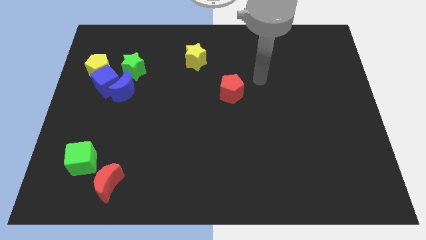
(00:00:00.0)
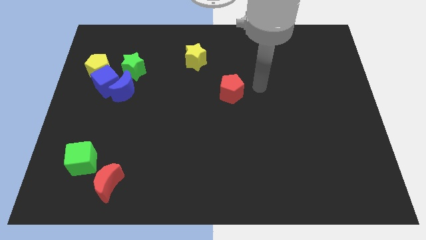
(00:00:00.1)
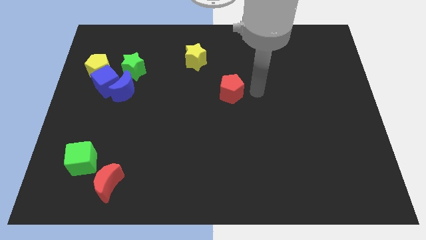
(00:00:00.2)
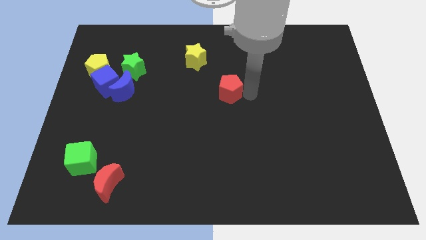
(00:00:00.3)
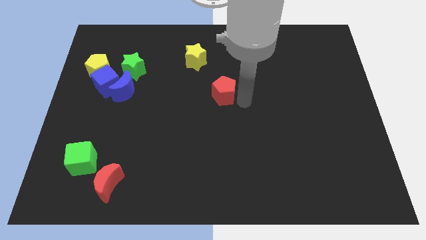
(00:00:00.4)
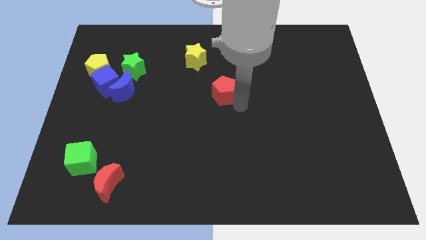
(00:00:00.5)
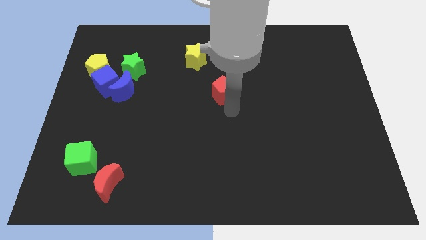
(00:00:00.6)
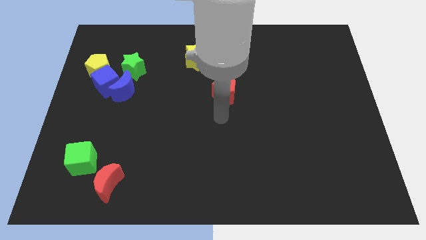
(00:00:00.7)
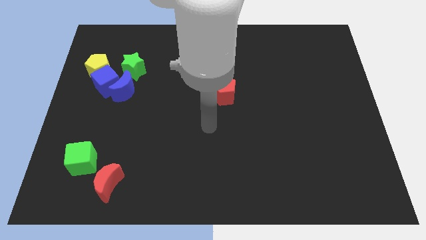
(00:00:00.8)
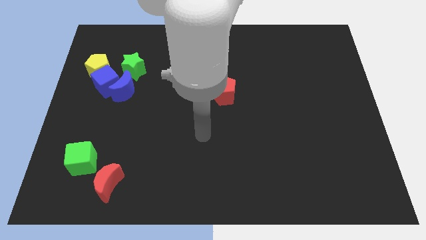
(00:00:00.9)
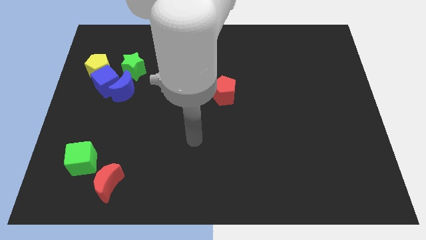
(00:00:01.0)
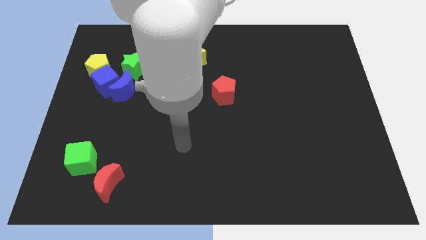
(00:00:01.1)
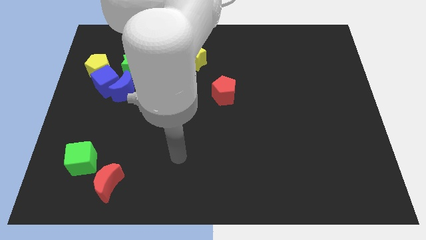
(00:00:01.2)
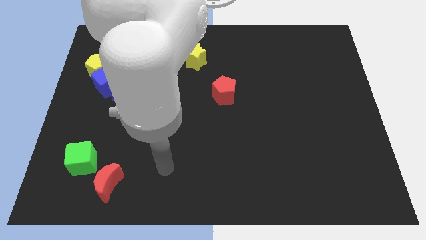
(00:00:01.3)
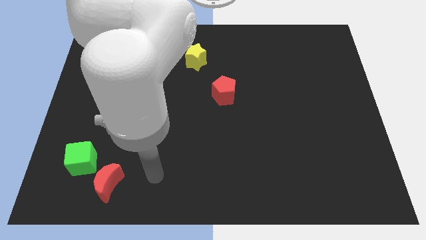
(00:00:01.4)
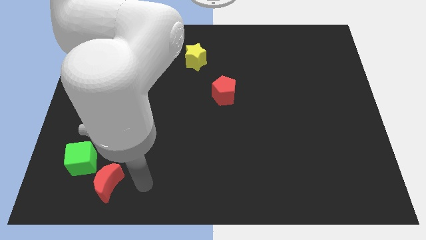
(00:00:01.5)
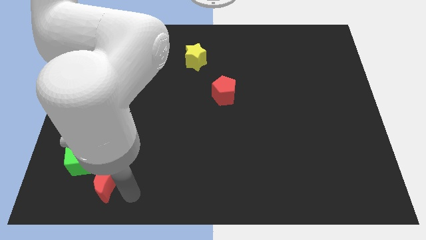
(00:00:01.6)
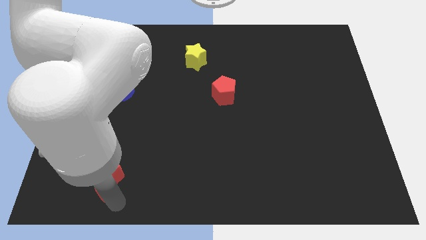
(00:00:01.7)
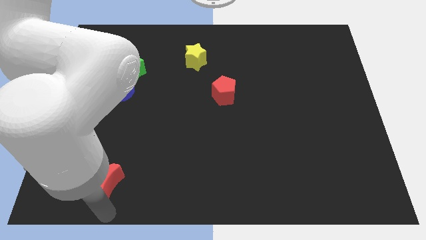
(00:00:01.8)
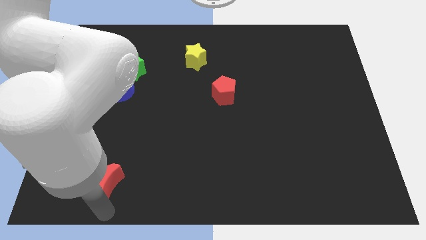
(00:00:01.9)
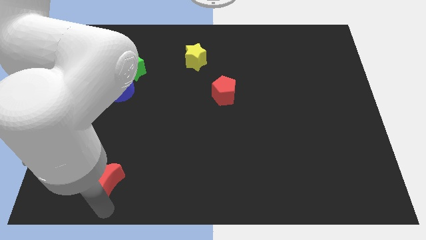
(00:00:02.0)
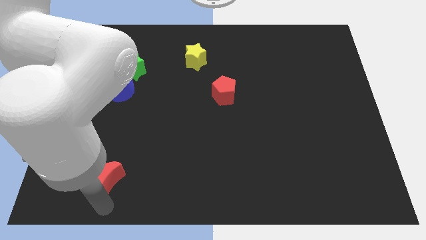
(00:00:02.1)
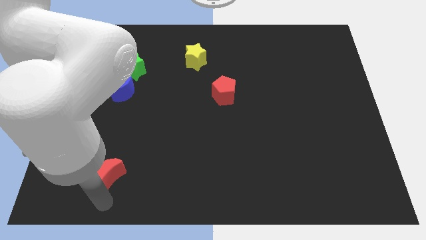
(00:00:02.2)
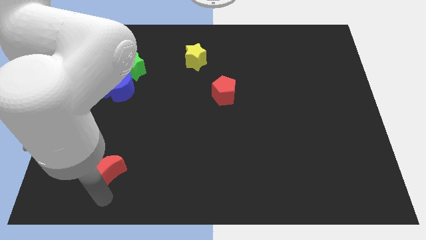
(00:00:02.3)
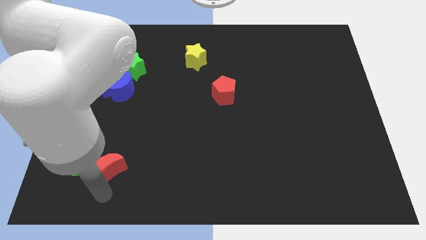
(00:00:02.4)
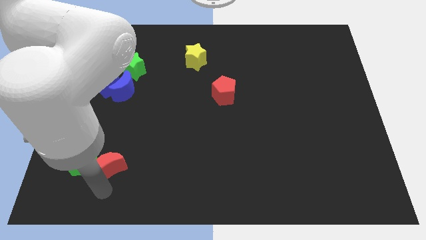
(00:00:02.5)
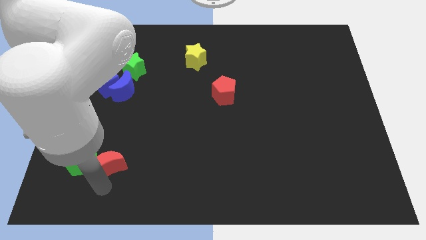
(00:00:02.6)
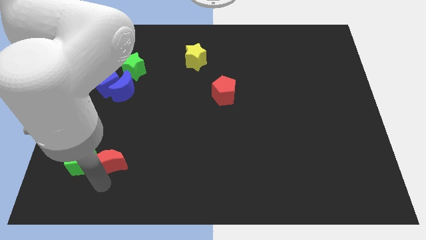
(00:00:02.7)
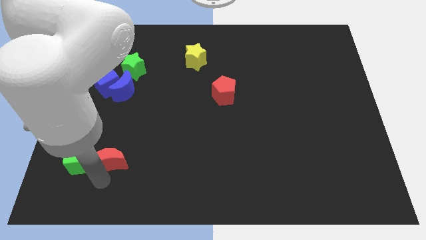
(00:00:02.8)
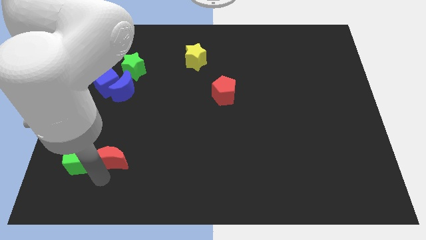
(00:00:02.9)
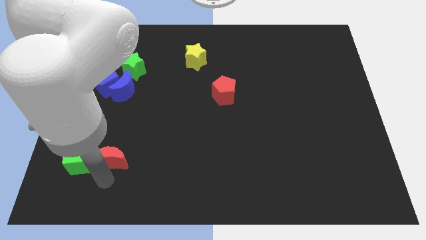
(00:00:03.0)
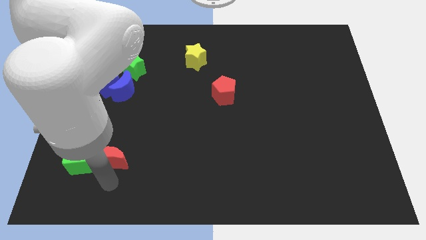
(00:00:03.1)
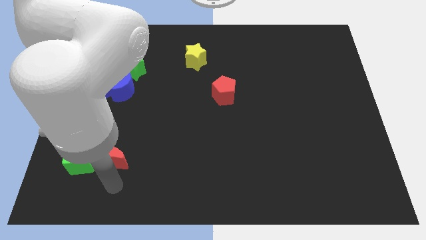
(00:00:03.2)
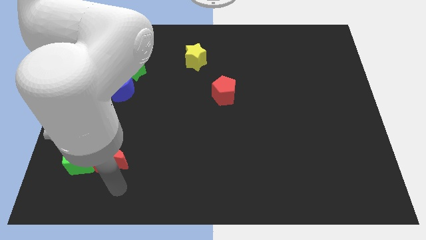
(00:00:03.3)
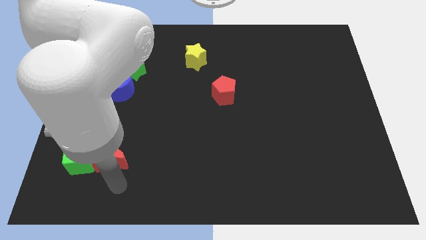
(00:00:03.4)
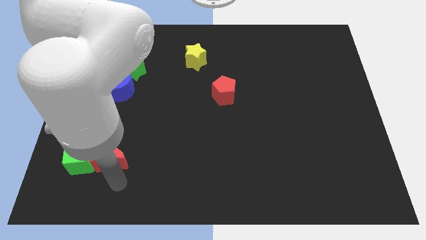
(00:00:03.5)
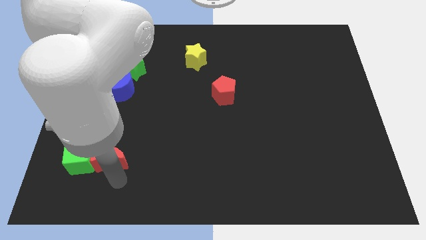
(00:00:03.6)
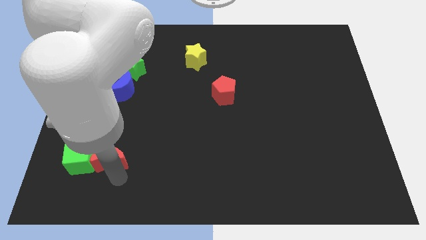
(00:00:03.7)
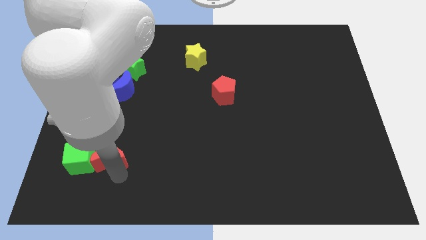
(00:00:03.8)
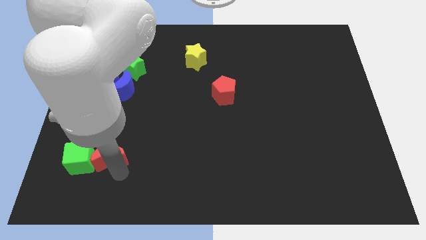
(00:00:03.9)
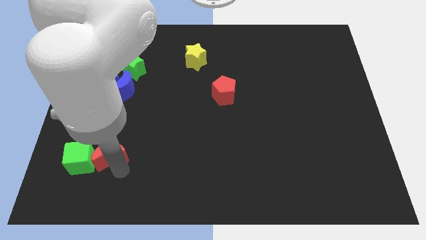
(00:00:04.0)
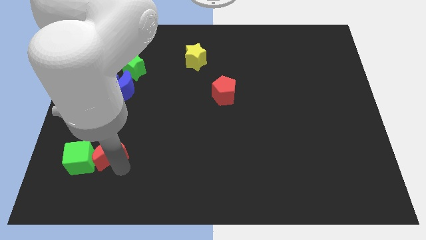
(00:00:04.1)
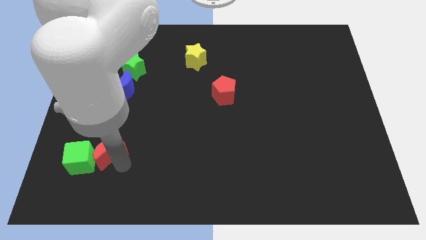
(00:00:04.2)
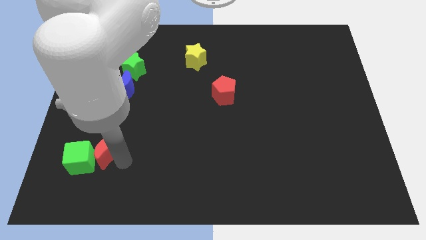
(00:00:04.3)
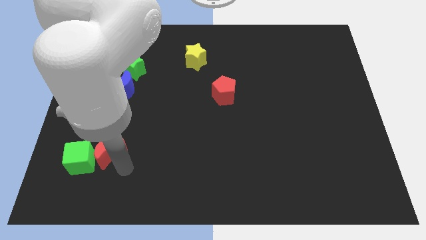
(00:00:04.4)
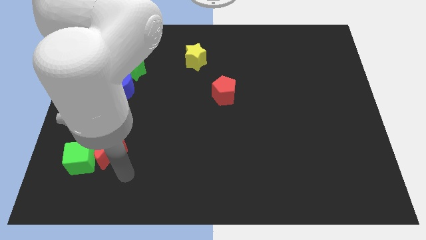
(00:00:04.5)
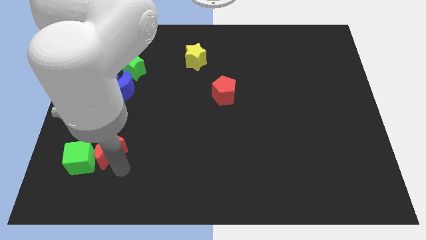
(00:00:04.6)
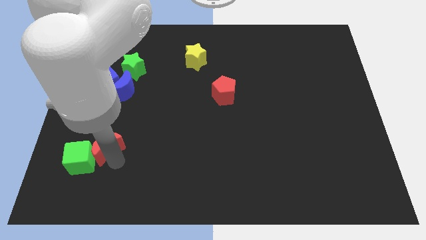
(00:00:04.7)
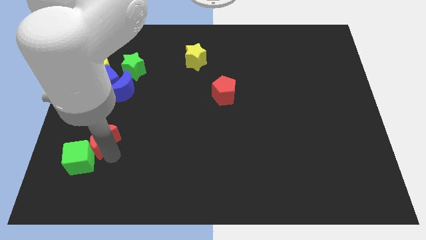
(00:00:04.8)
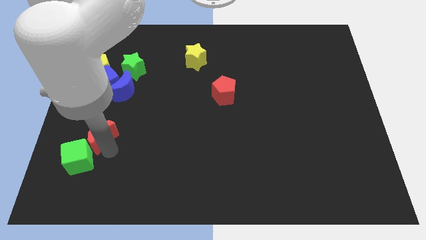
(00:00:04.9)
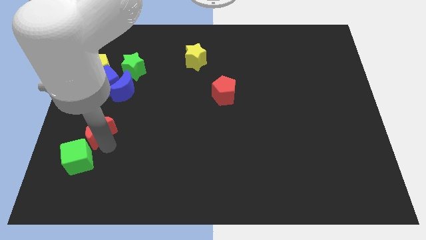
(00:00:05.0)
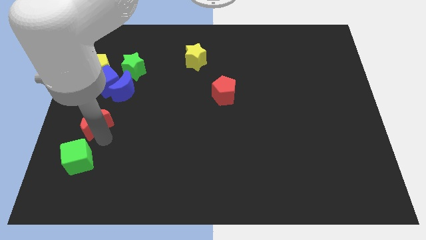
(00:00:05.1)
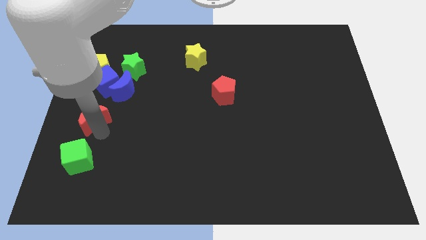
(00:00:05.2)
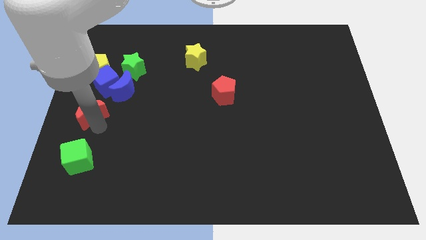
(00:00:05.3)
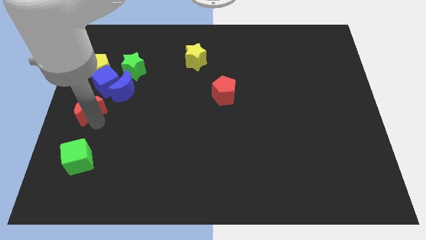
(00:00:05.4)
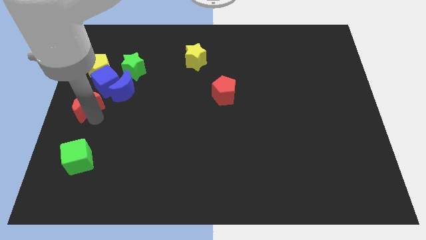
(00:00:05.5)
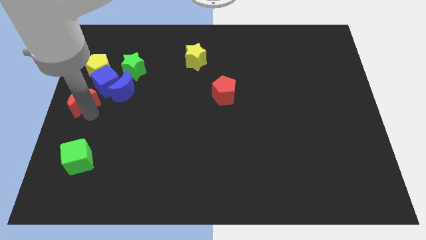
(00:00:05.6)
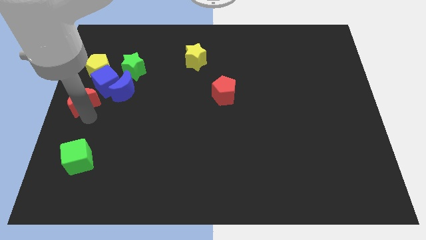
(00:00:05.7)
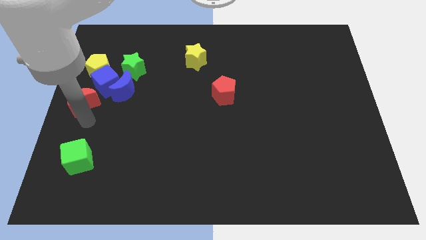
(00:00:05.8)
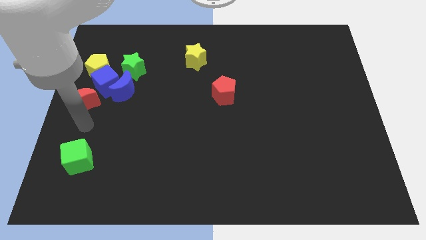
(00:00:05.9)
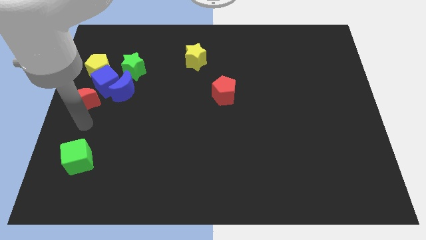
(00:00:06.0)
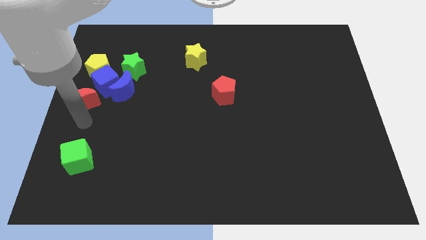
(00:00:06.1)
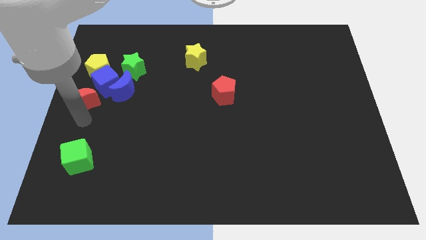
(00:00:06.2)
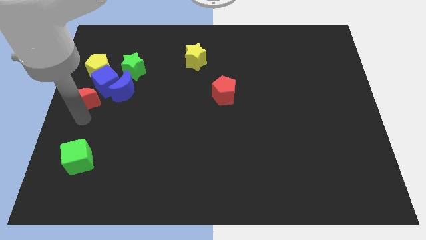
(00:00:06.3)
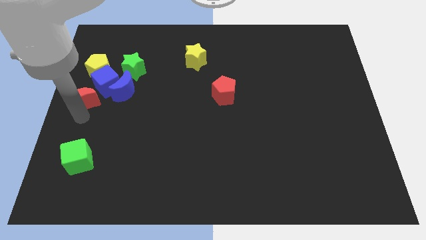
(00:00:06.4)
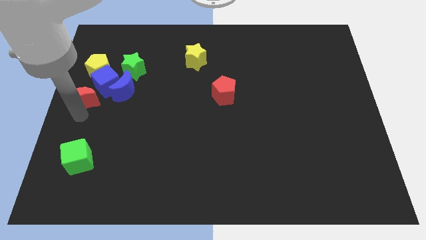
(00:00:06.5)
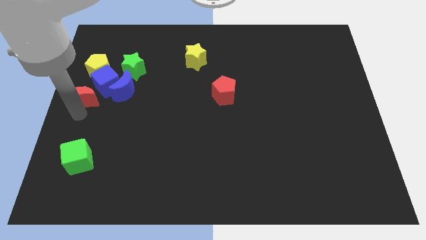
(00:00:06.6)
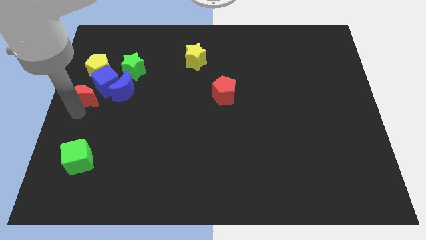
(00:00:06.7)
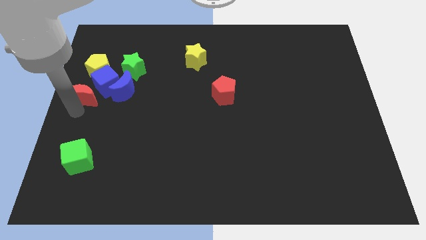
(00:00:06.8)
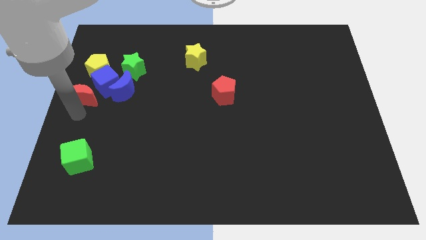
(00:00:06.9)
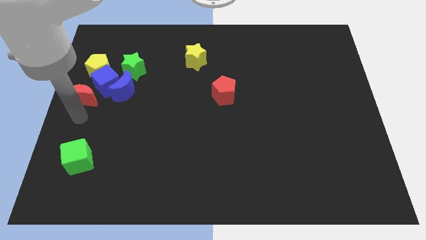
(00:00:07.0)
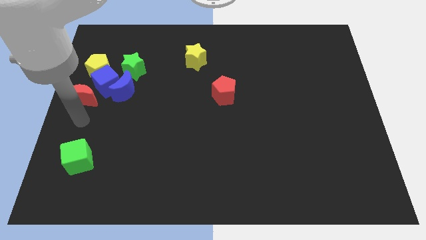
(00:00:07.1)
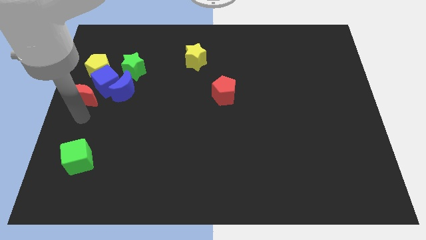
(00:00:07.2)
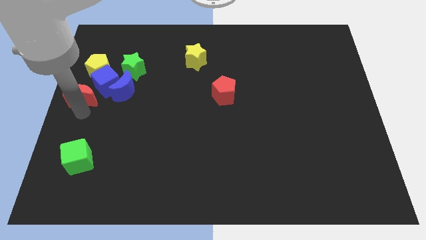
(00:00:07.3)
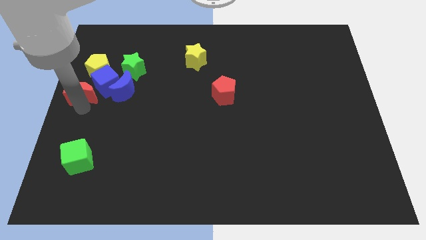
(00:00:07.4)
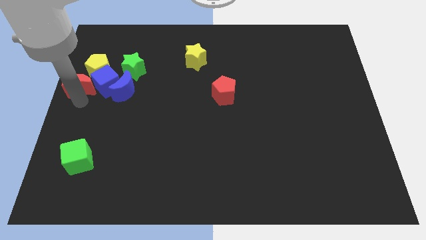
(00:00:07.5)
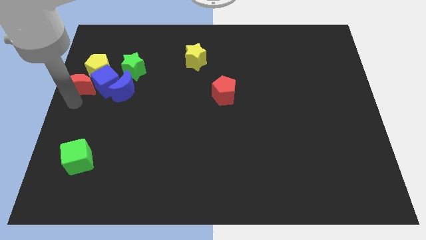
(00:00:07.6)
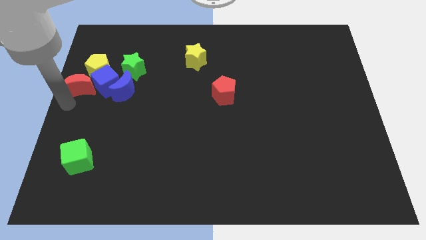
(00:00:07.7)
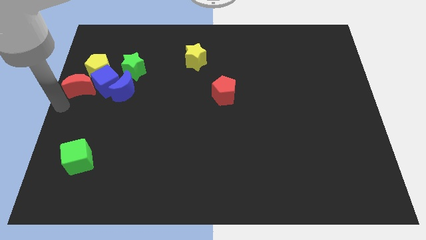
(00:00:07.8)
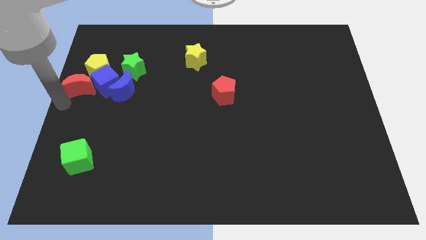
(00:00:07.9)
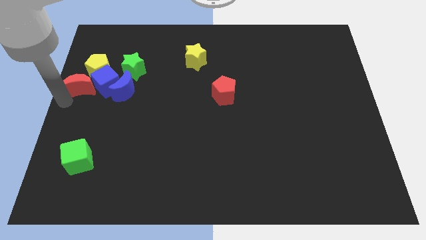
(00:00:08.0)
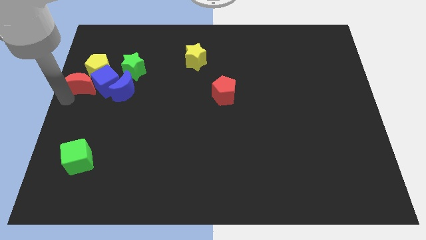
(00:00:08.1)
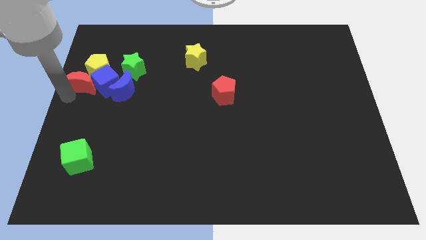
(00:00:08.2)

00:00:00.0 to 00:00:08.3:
put the red moon next to the yellow pentagon
